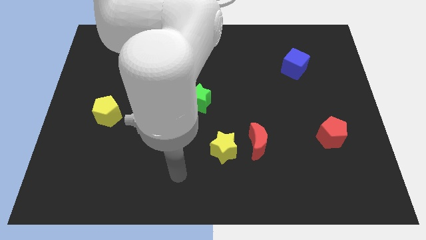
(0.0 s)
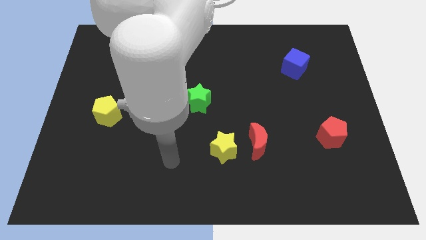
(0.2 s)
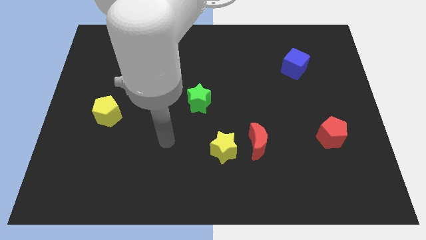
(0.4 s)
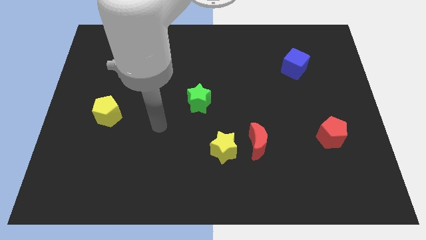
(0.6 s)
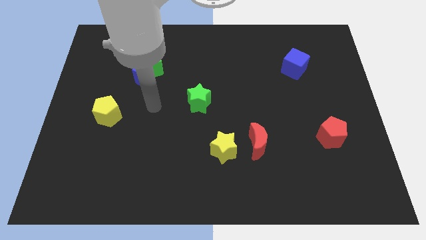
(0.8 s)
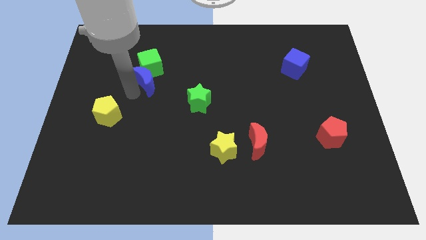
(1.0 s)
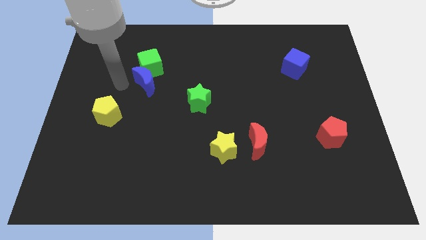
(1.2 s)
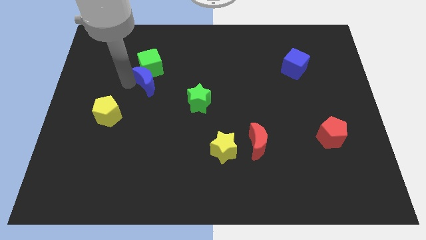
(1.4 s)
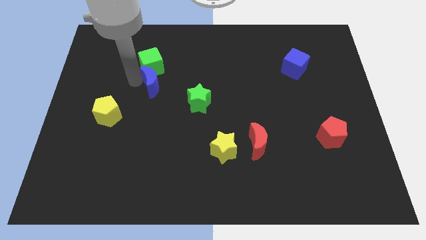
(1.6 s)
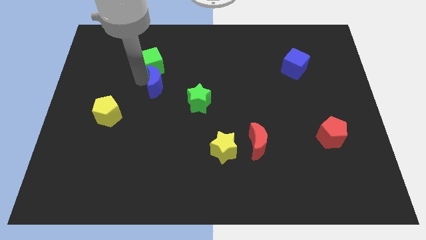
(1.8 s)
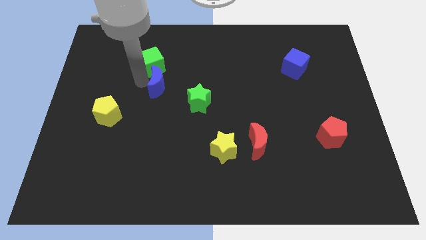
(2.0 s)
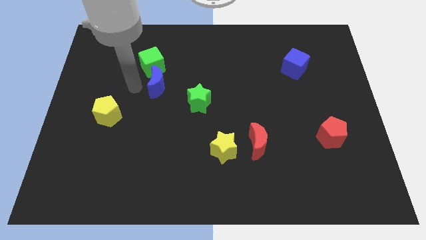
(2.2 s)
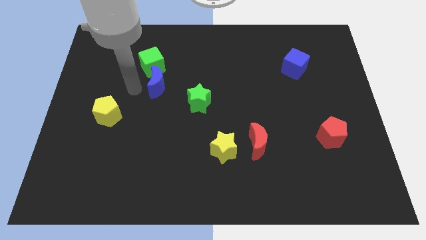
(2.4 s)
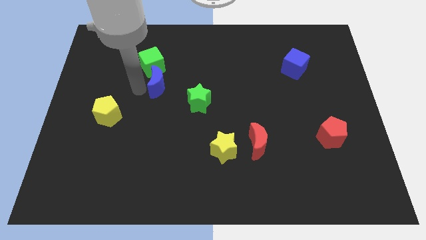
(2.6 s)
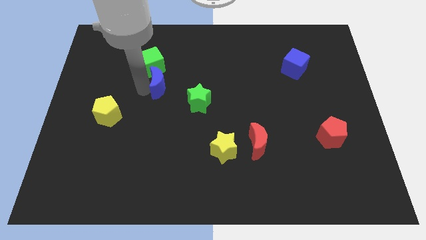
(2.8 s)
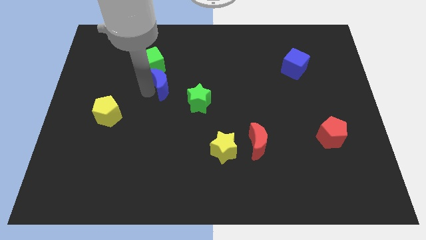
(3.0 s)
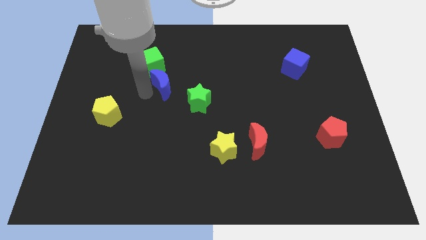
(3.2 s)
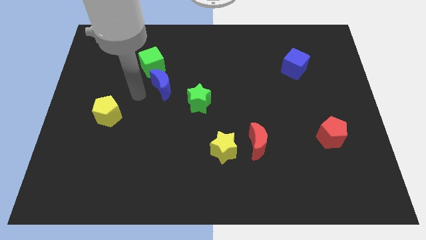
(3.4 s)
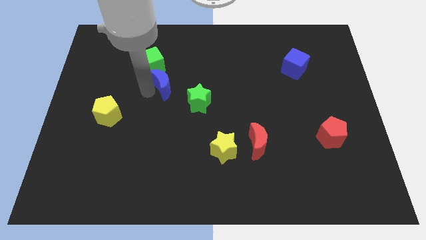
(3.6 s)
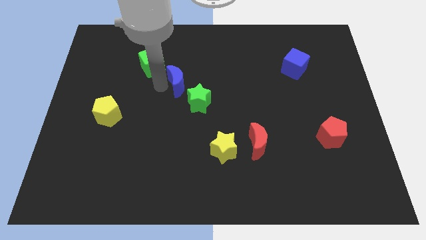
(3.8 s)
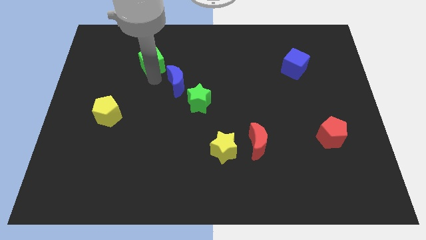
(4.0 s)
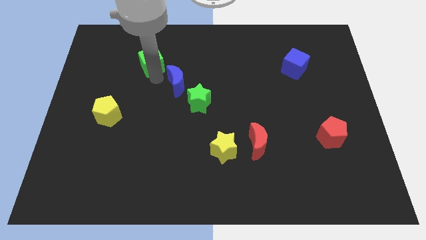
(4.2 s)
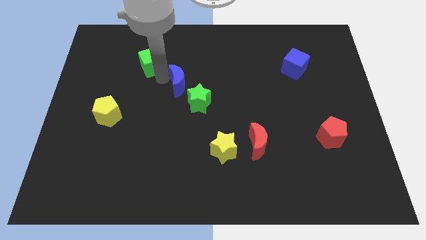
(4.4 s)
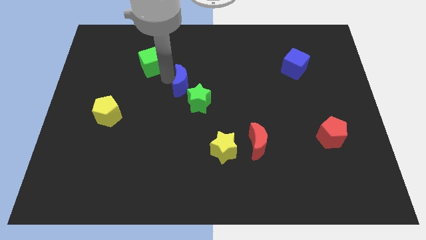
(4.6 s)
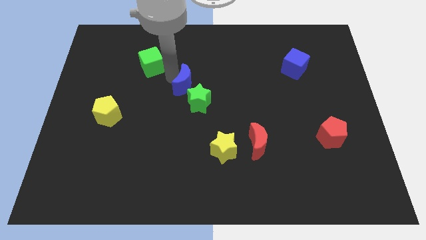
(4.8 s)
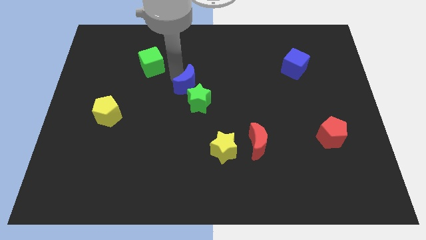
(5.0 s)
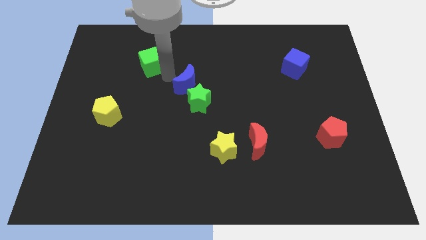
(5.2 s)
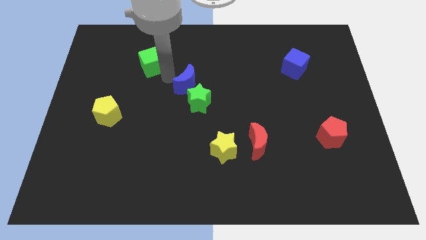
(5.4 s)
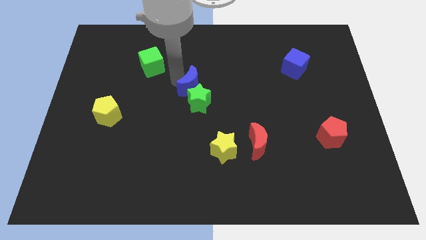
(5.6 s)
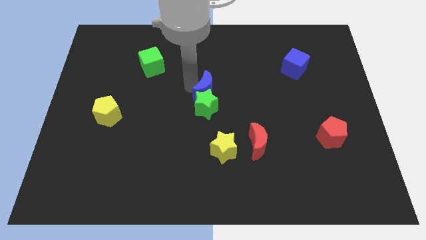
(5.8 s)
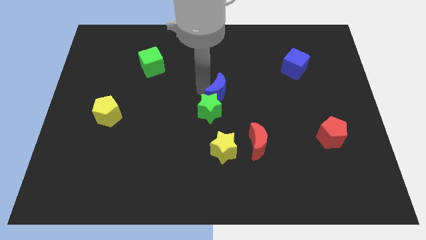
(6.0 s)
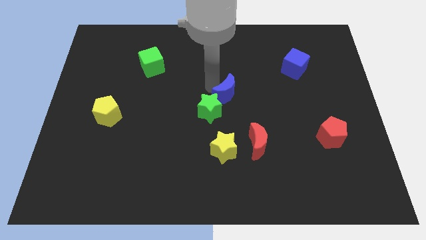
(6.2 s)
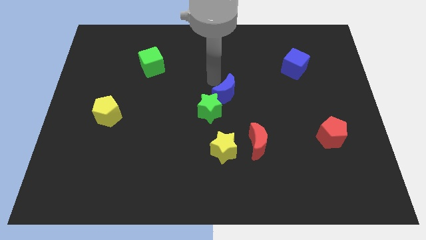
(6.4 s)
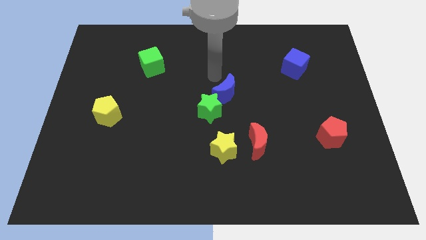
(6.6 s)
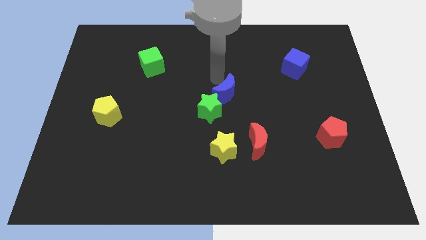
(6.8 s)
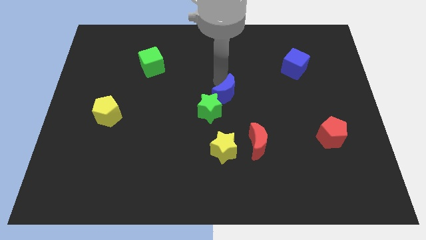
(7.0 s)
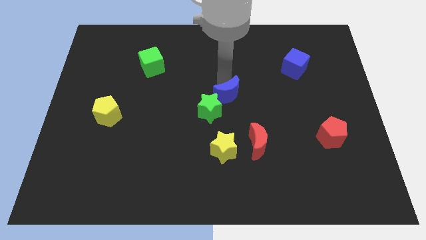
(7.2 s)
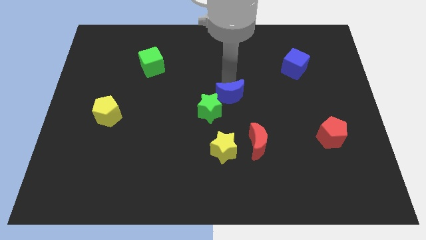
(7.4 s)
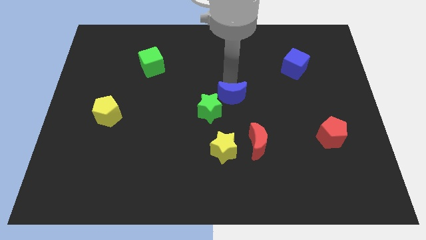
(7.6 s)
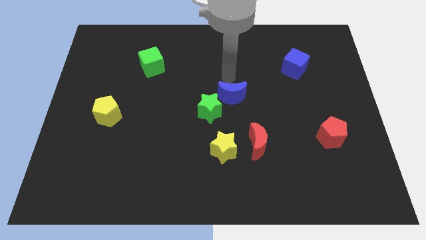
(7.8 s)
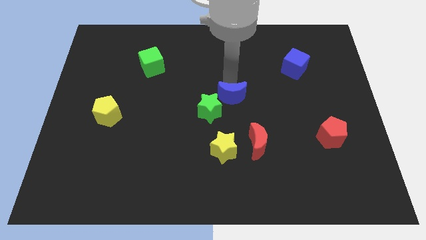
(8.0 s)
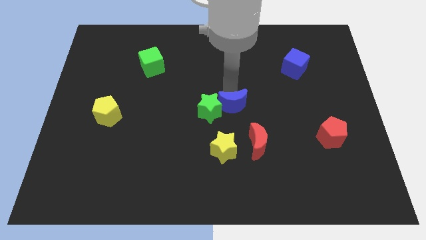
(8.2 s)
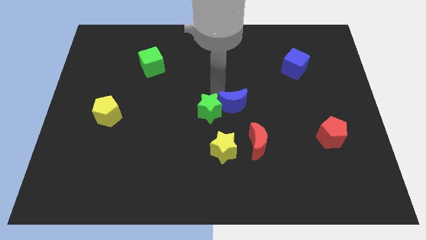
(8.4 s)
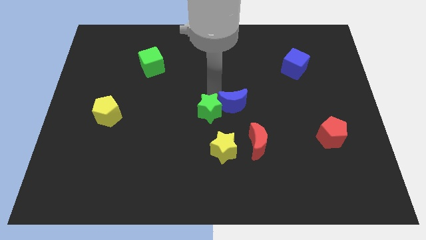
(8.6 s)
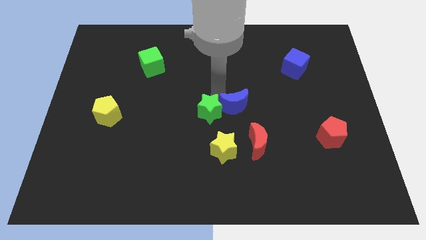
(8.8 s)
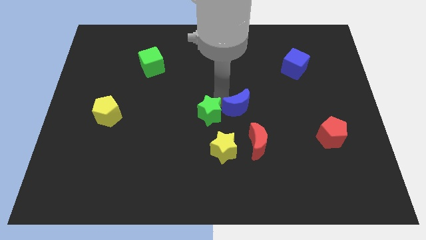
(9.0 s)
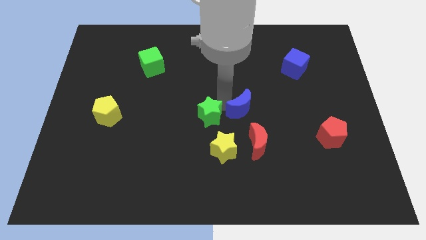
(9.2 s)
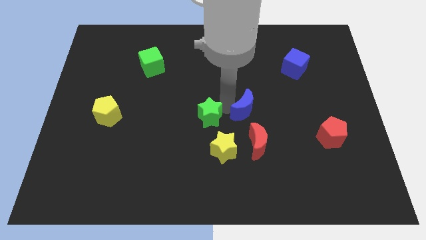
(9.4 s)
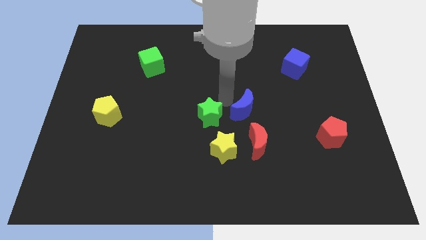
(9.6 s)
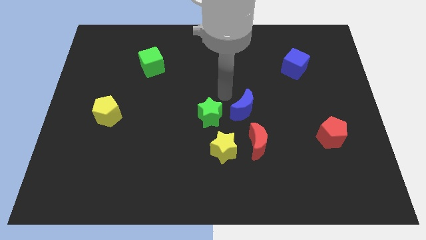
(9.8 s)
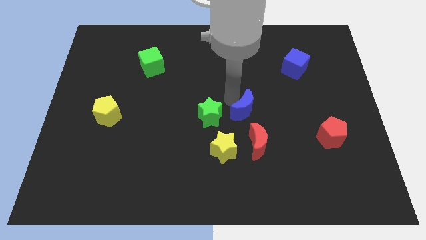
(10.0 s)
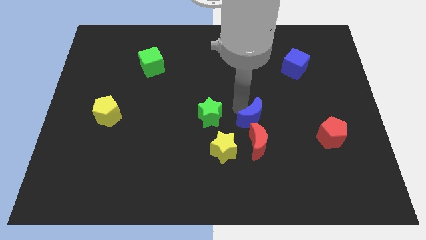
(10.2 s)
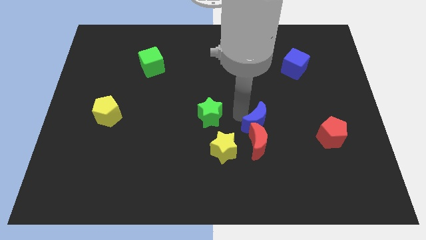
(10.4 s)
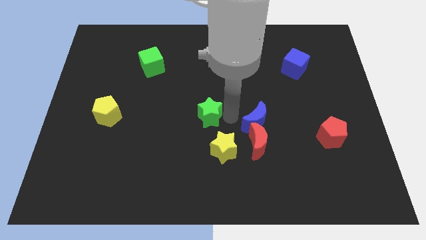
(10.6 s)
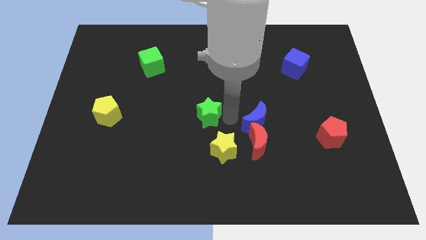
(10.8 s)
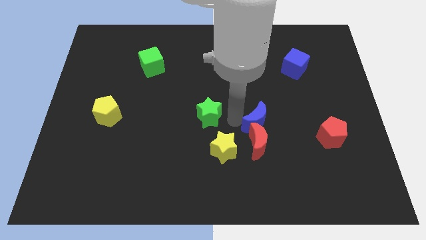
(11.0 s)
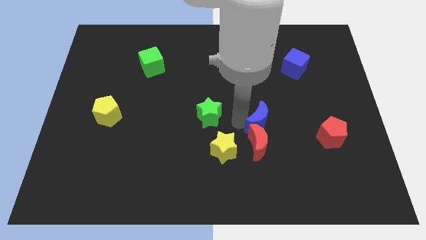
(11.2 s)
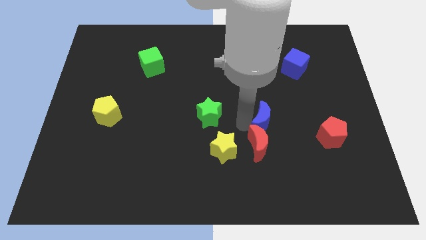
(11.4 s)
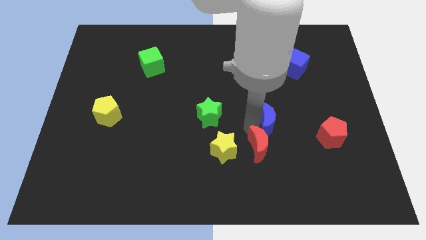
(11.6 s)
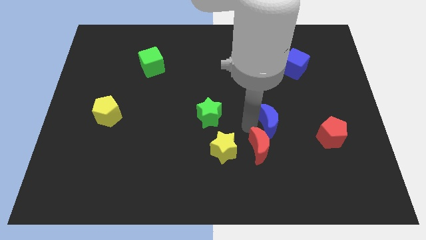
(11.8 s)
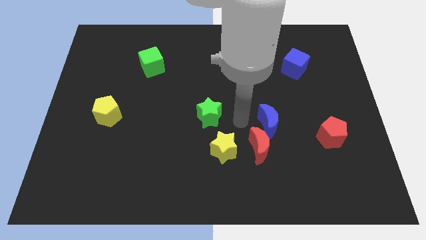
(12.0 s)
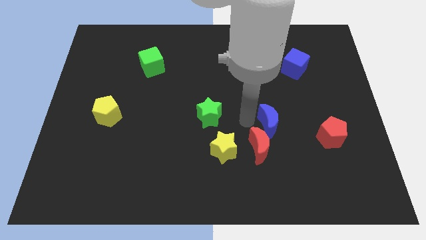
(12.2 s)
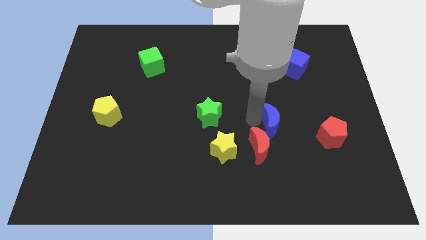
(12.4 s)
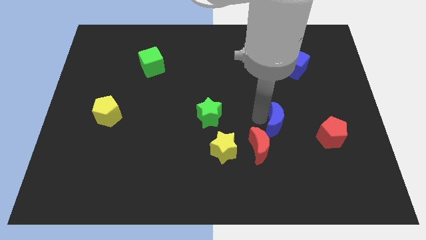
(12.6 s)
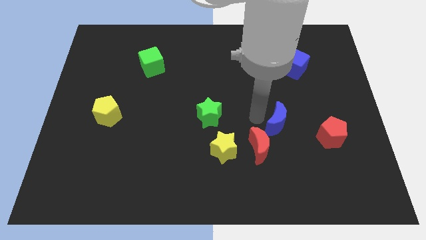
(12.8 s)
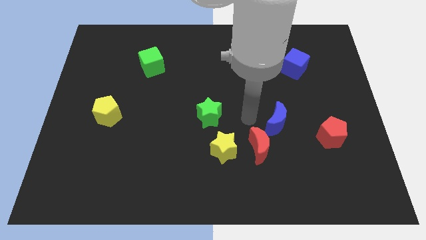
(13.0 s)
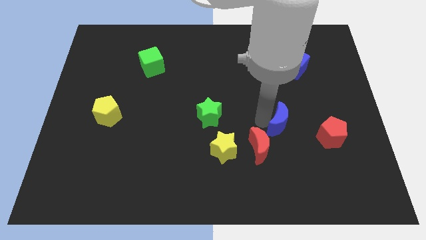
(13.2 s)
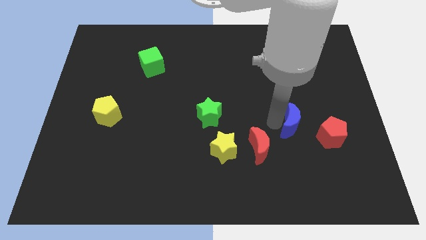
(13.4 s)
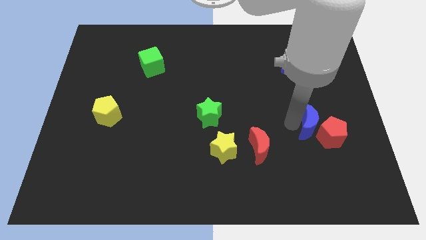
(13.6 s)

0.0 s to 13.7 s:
move the blue moon to the red pentagon
